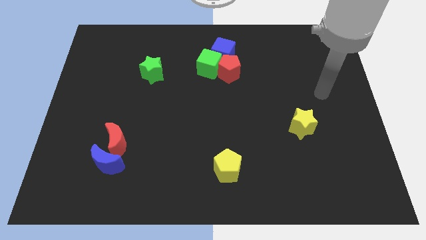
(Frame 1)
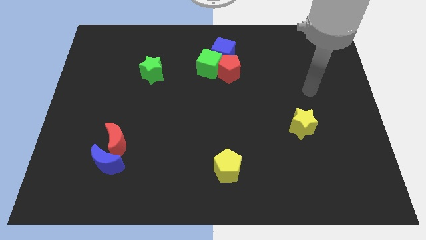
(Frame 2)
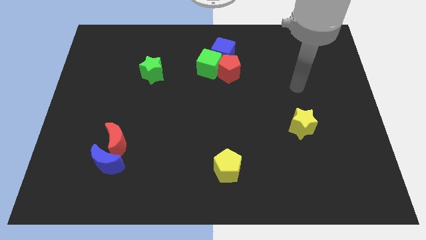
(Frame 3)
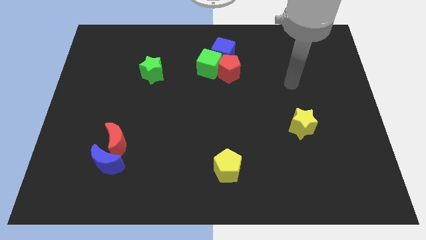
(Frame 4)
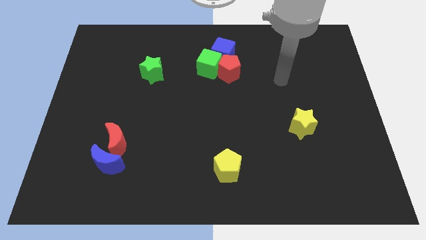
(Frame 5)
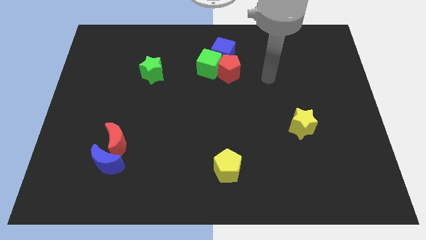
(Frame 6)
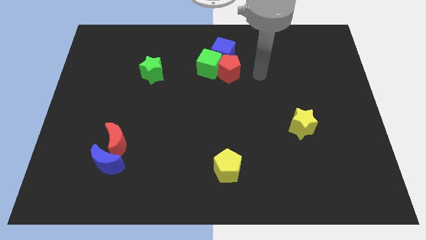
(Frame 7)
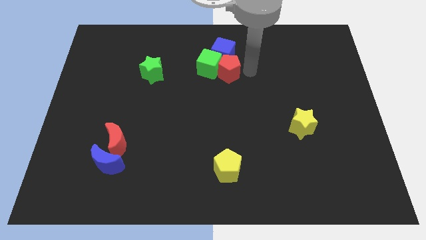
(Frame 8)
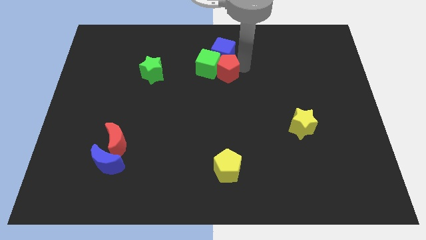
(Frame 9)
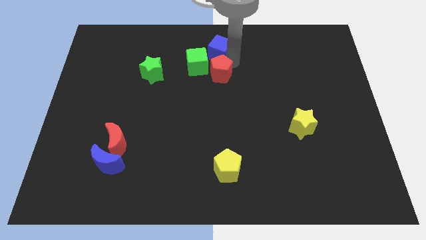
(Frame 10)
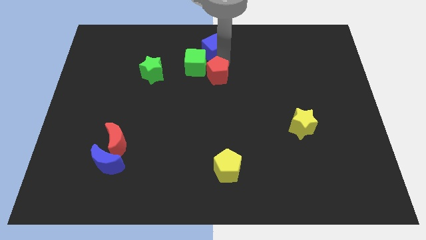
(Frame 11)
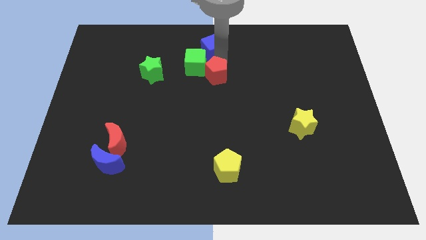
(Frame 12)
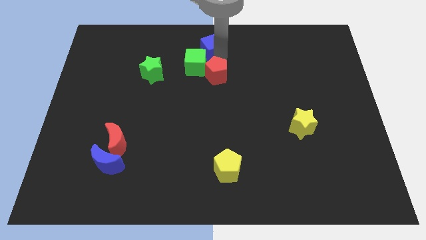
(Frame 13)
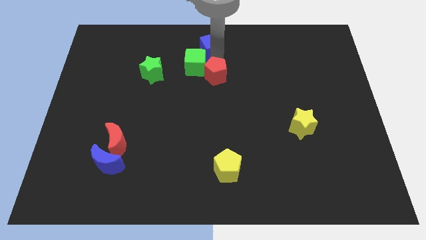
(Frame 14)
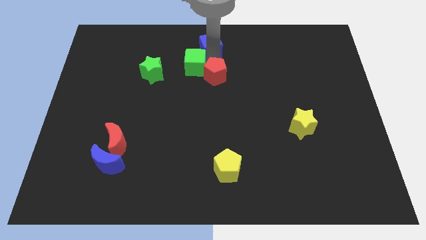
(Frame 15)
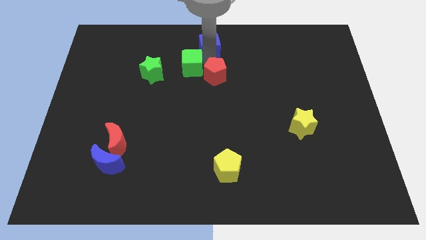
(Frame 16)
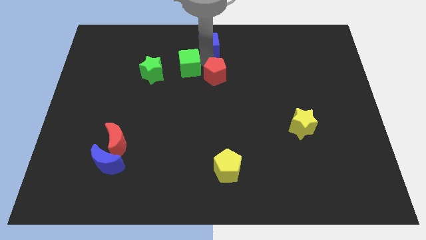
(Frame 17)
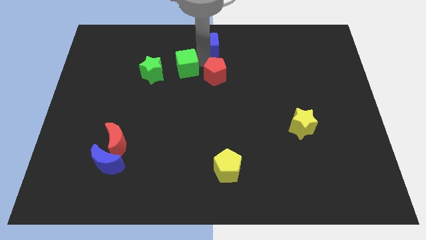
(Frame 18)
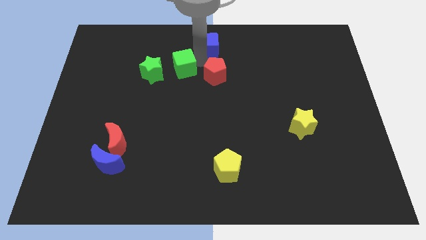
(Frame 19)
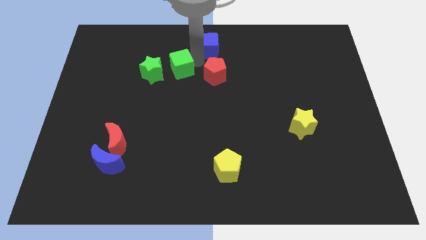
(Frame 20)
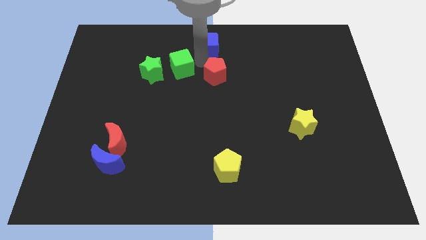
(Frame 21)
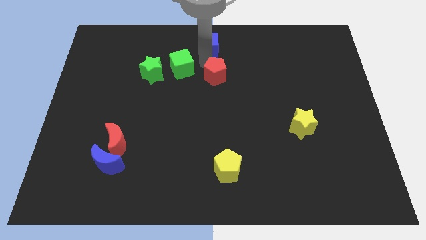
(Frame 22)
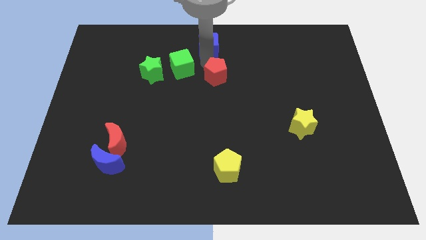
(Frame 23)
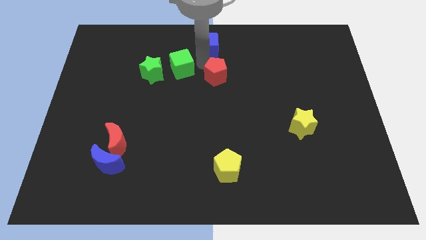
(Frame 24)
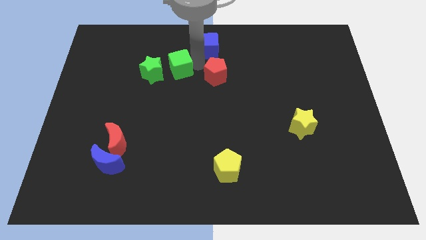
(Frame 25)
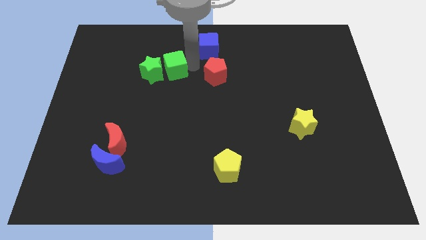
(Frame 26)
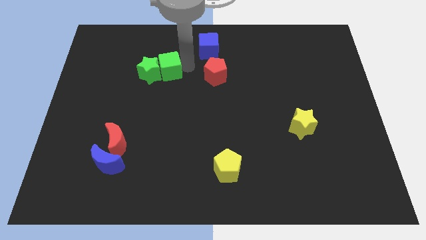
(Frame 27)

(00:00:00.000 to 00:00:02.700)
pull the green cube apart from the red pentagon and blue cube

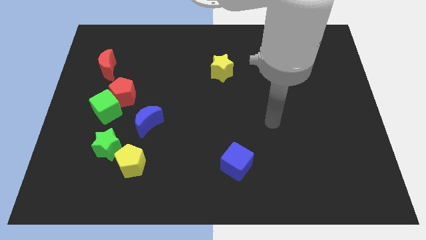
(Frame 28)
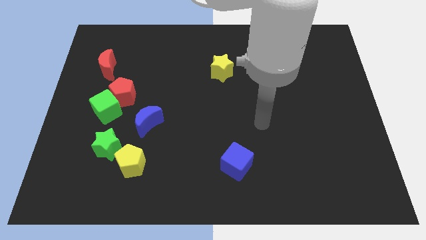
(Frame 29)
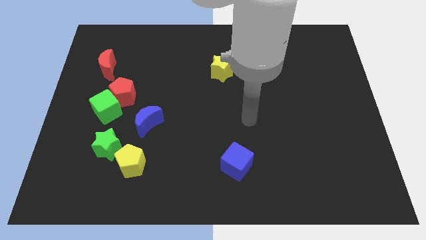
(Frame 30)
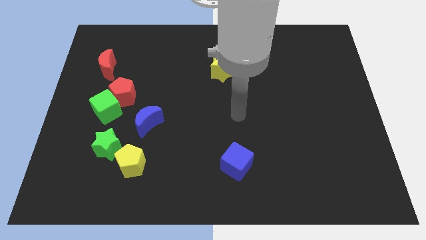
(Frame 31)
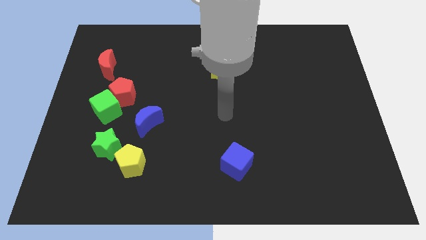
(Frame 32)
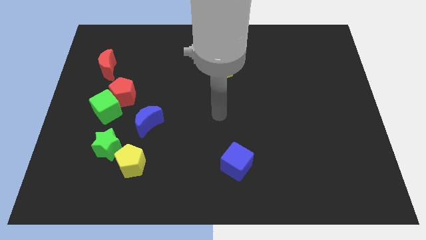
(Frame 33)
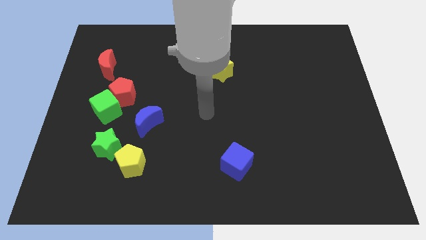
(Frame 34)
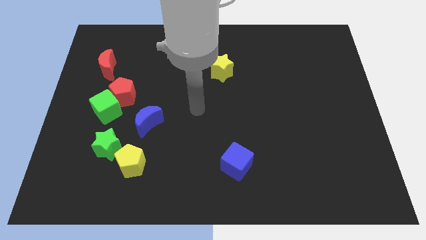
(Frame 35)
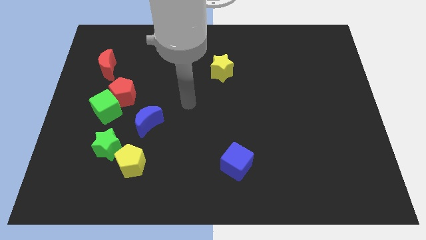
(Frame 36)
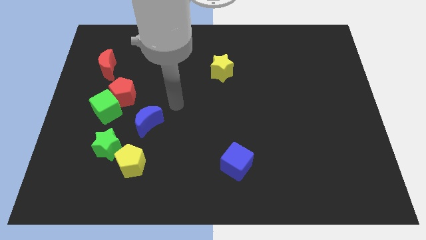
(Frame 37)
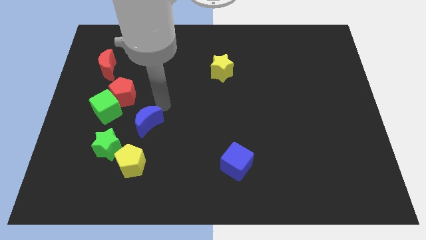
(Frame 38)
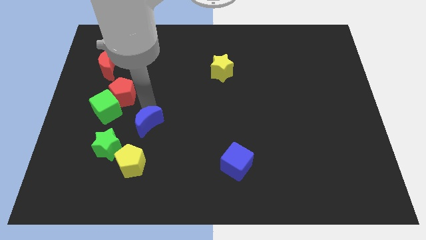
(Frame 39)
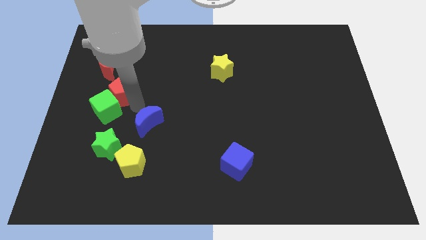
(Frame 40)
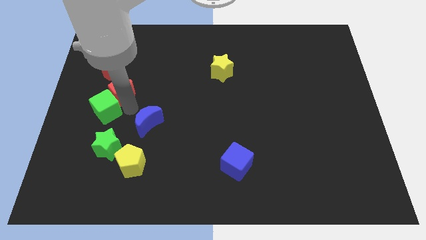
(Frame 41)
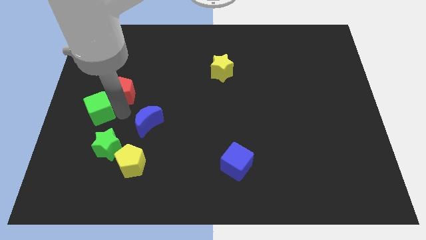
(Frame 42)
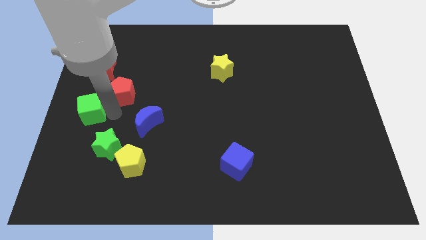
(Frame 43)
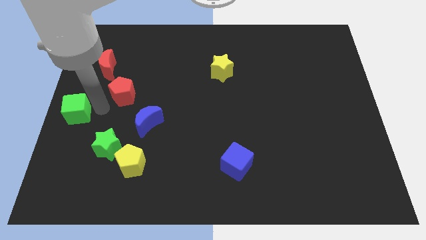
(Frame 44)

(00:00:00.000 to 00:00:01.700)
move the red pentagon away from the green cube

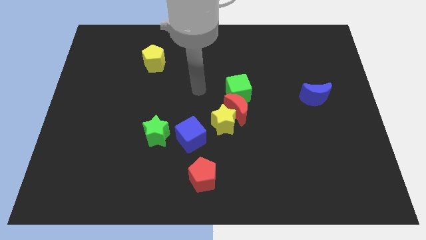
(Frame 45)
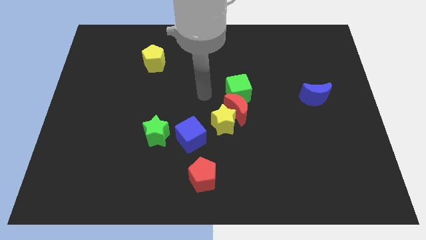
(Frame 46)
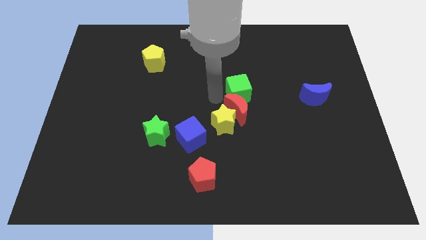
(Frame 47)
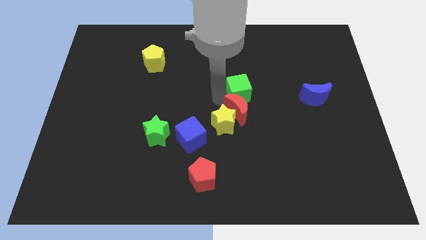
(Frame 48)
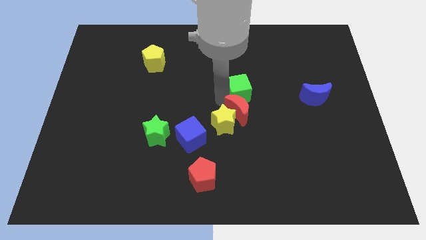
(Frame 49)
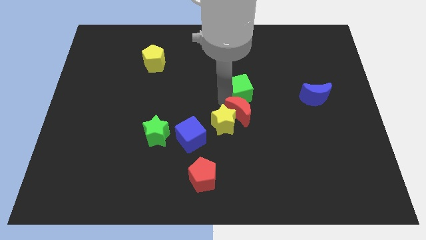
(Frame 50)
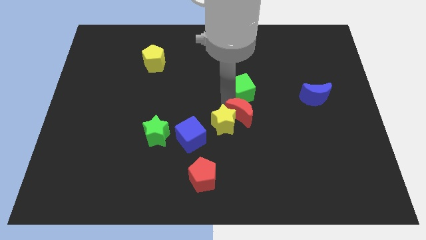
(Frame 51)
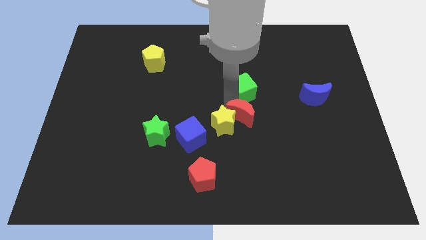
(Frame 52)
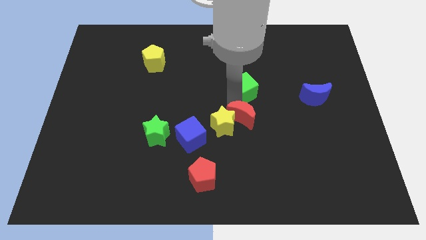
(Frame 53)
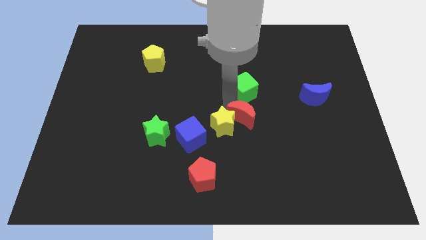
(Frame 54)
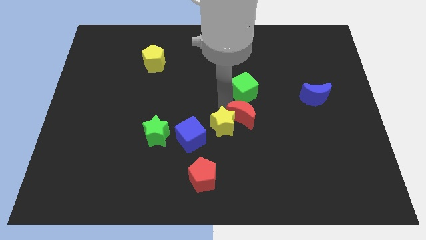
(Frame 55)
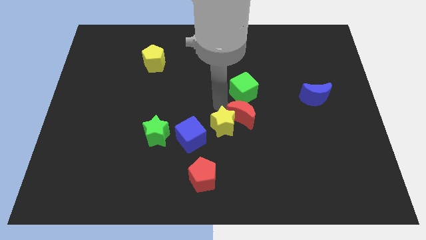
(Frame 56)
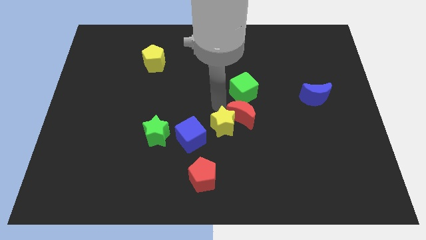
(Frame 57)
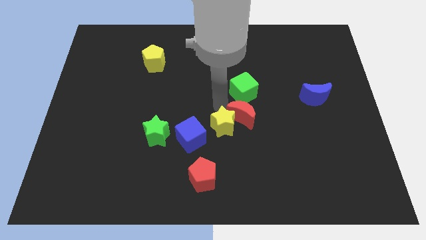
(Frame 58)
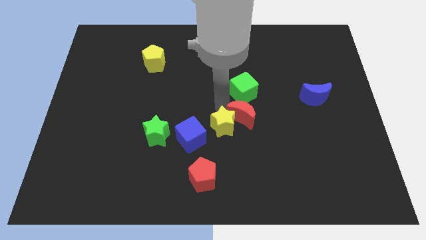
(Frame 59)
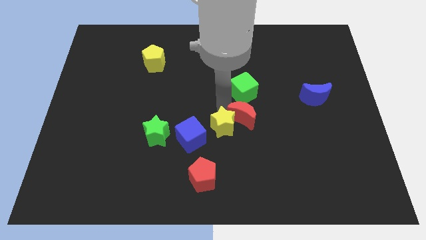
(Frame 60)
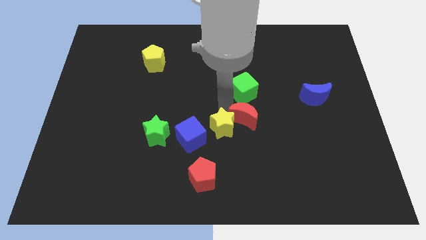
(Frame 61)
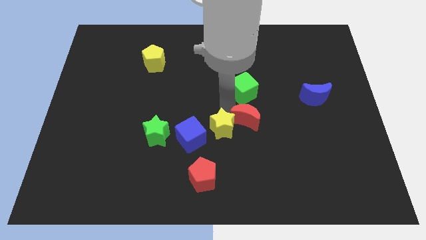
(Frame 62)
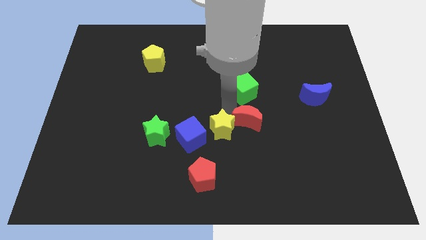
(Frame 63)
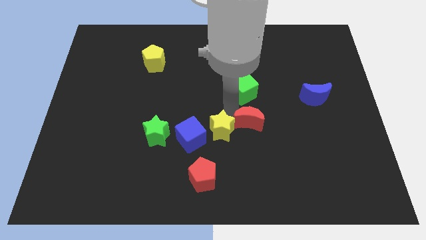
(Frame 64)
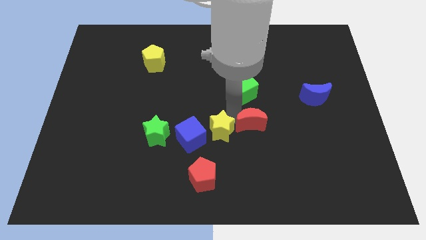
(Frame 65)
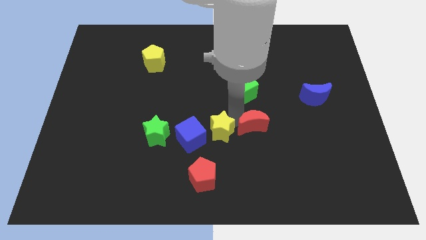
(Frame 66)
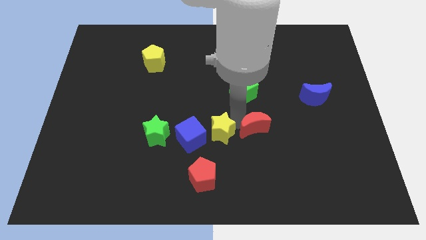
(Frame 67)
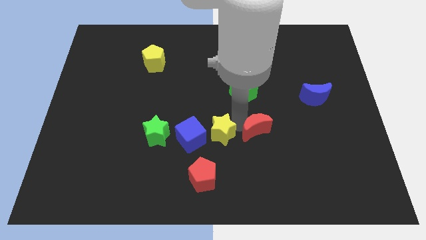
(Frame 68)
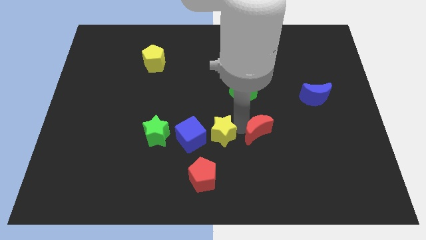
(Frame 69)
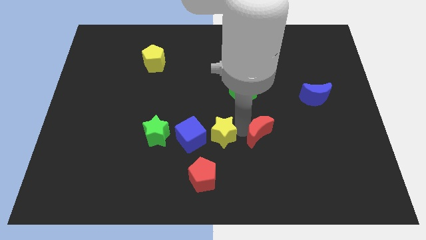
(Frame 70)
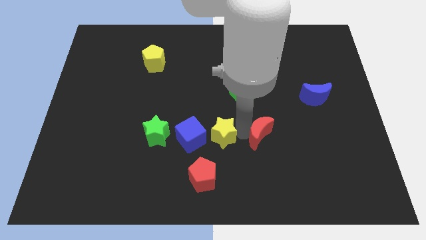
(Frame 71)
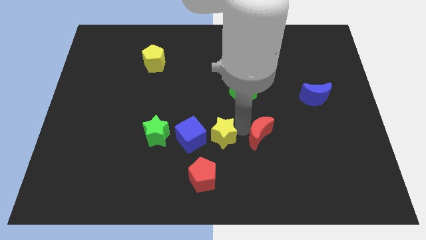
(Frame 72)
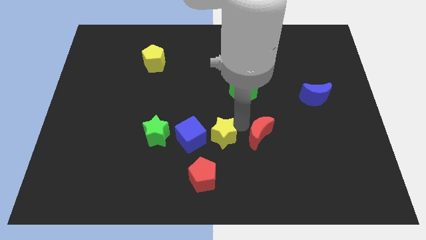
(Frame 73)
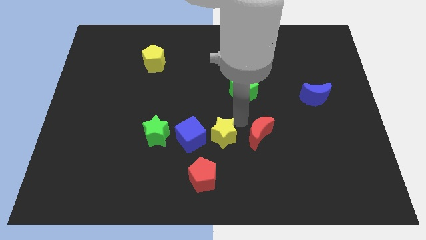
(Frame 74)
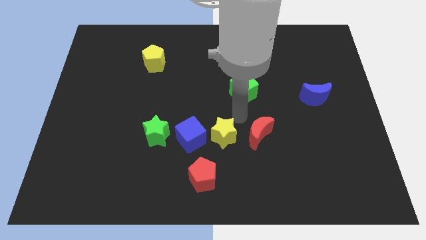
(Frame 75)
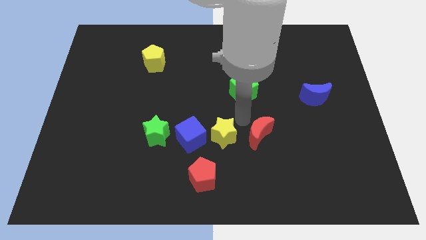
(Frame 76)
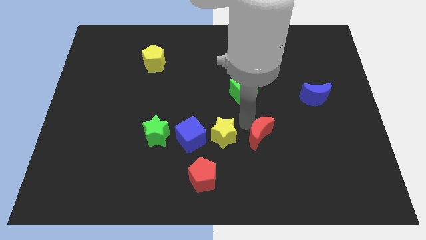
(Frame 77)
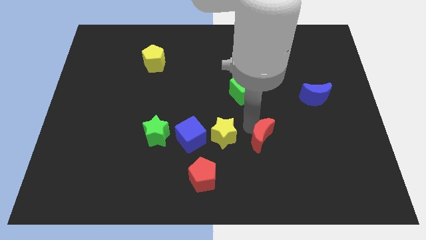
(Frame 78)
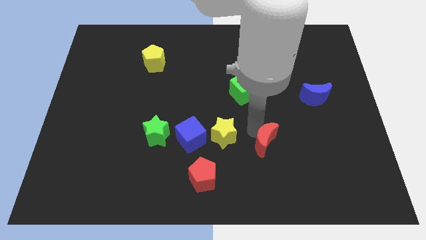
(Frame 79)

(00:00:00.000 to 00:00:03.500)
pull the red moon apart from the yellow star and green cube

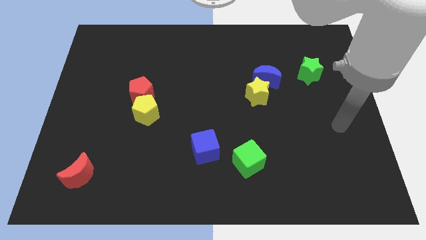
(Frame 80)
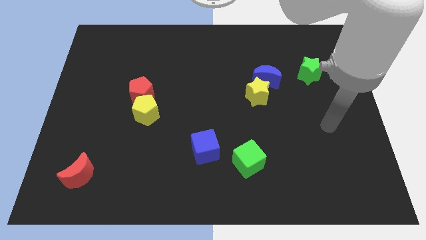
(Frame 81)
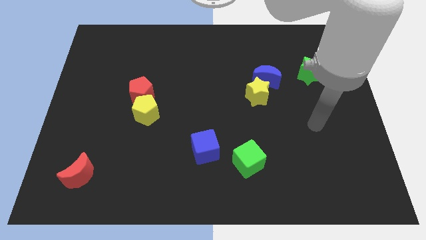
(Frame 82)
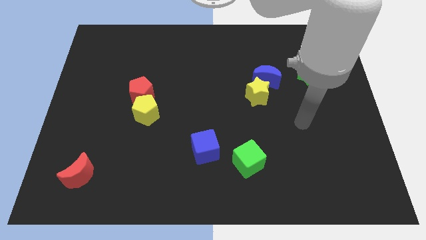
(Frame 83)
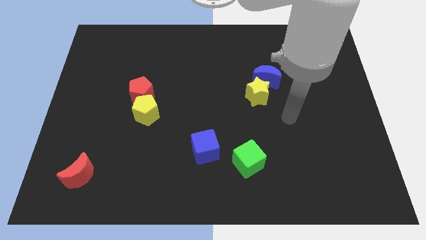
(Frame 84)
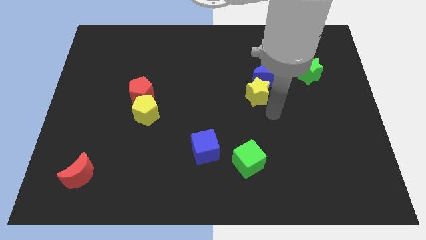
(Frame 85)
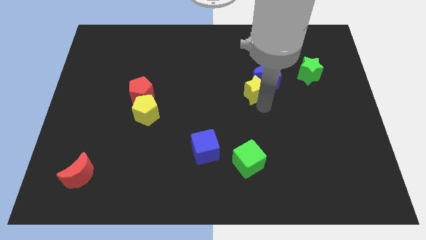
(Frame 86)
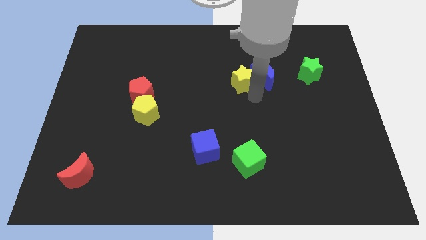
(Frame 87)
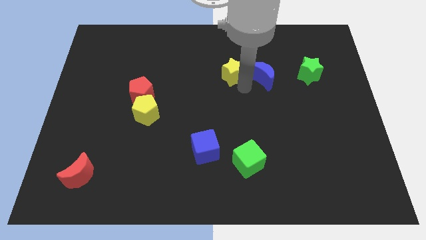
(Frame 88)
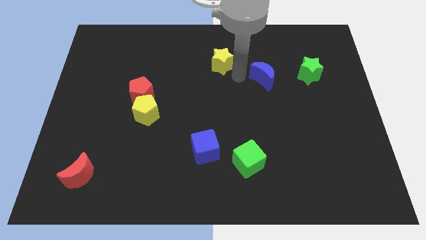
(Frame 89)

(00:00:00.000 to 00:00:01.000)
separate the blue moon from the yellow star

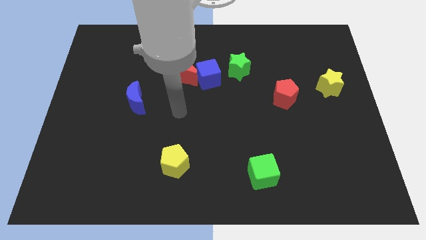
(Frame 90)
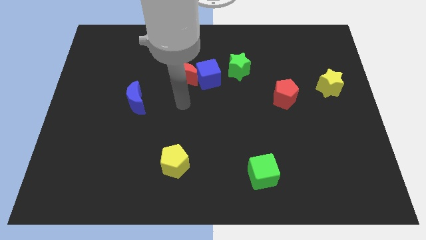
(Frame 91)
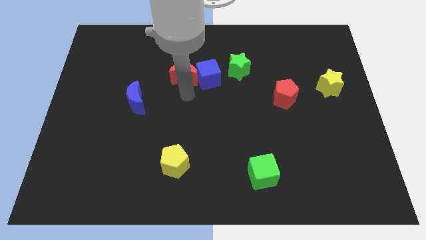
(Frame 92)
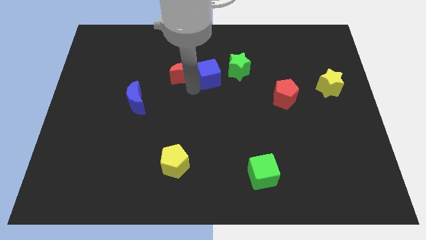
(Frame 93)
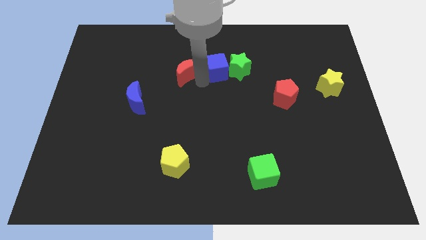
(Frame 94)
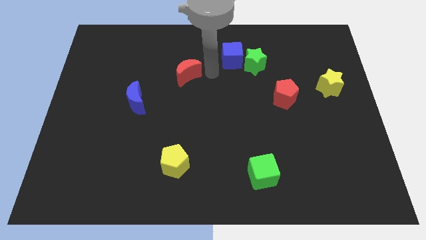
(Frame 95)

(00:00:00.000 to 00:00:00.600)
pull the red moon apart from the blue cube
